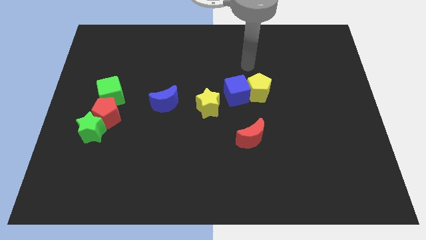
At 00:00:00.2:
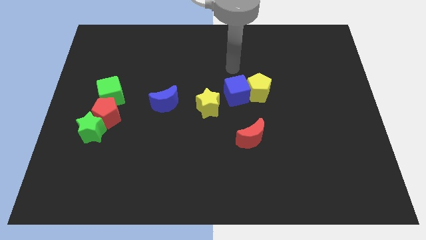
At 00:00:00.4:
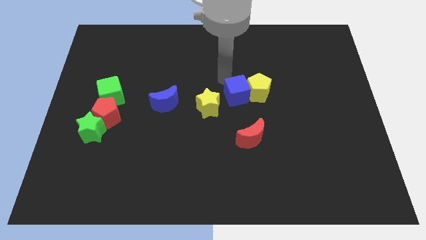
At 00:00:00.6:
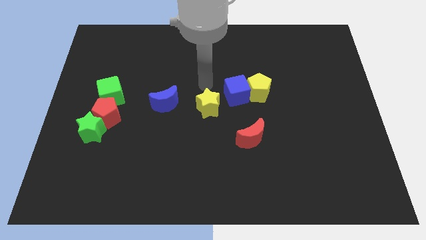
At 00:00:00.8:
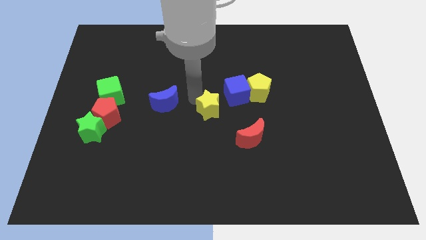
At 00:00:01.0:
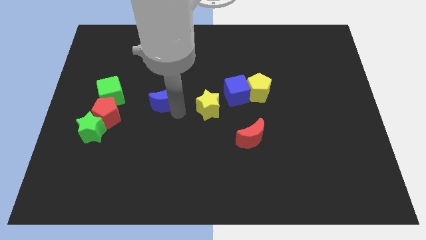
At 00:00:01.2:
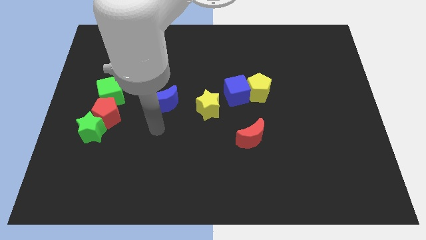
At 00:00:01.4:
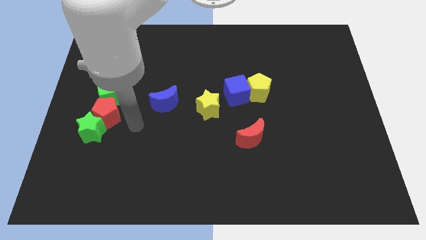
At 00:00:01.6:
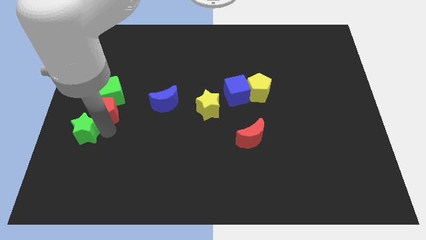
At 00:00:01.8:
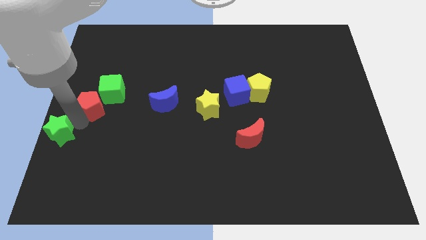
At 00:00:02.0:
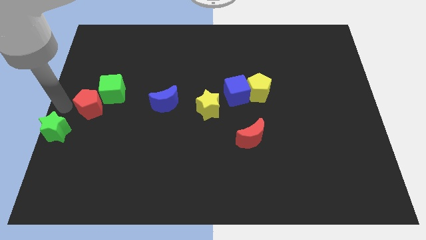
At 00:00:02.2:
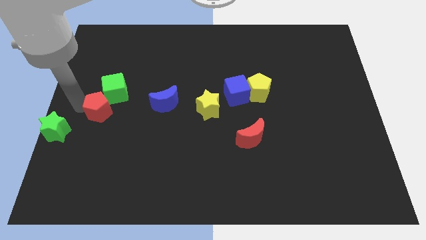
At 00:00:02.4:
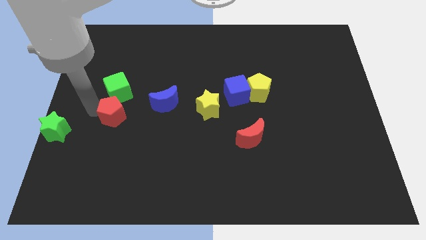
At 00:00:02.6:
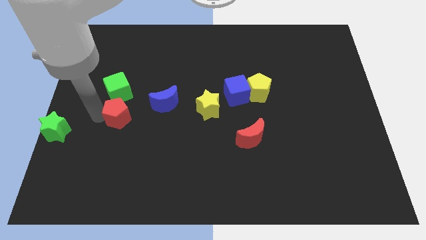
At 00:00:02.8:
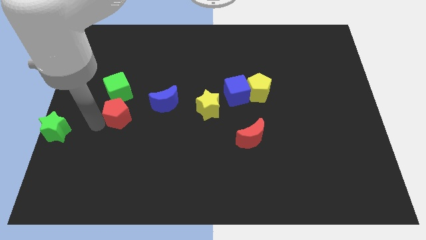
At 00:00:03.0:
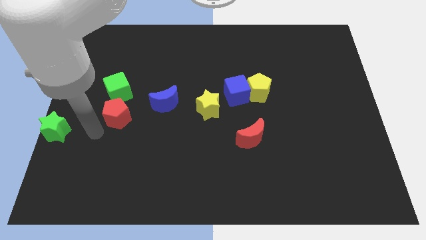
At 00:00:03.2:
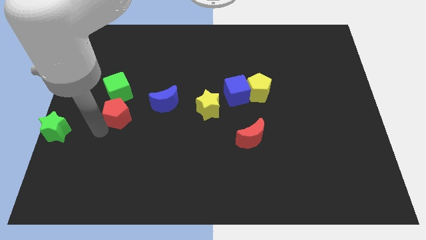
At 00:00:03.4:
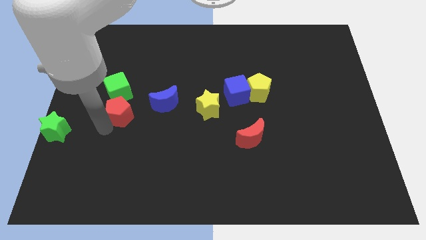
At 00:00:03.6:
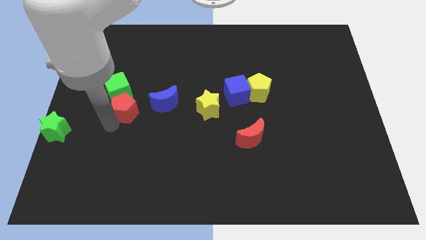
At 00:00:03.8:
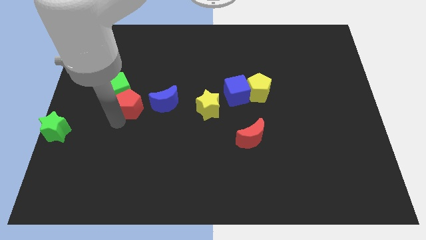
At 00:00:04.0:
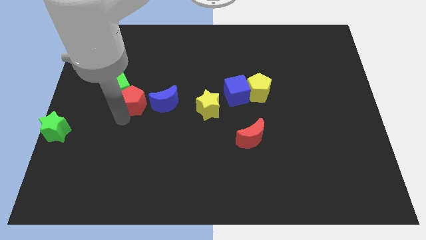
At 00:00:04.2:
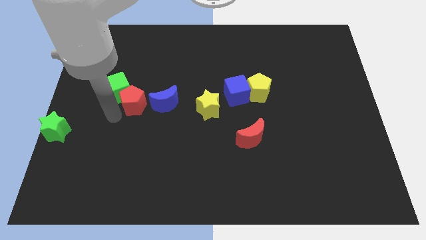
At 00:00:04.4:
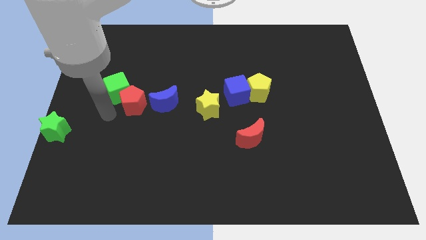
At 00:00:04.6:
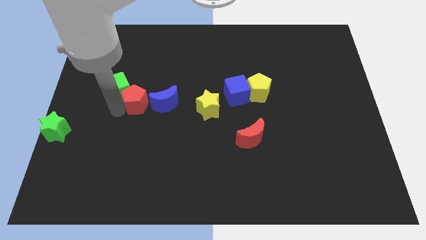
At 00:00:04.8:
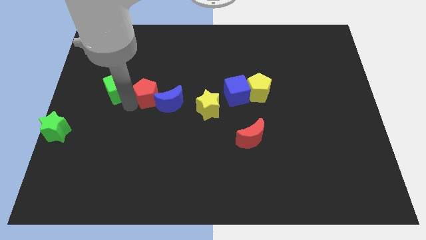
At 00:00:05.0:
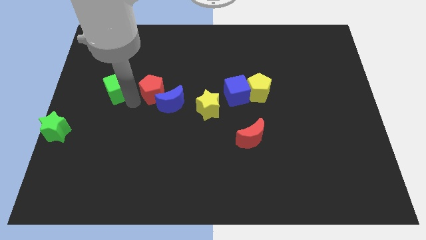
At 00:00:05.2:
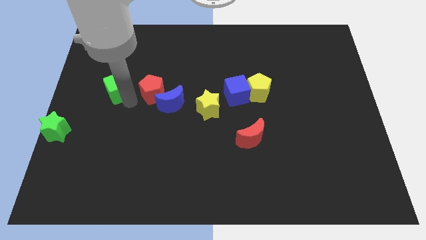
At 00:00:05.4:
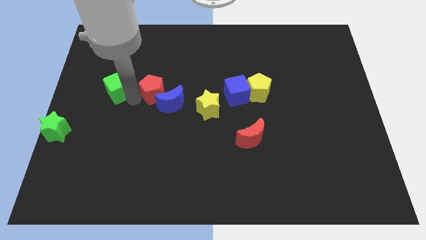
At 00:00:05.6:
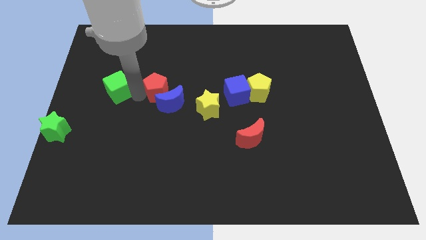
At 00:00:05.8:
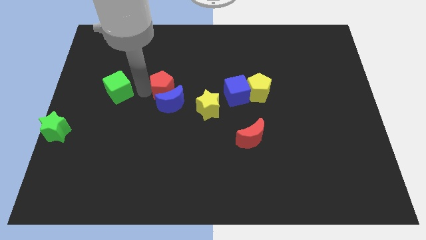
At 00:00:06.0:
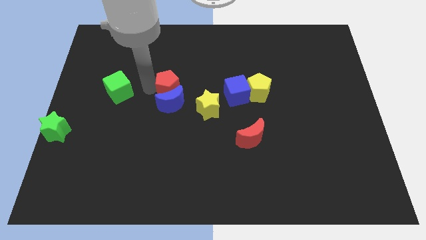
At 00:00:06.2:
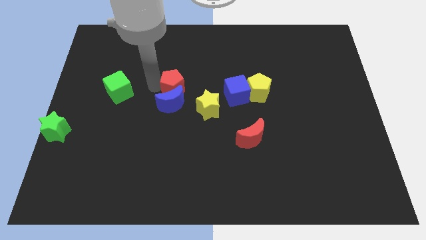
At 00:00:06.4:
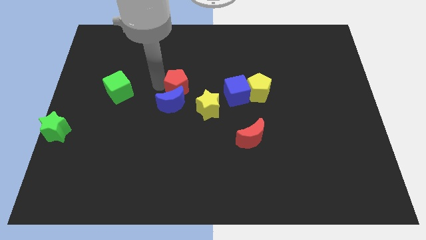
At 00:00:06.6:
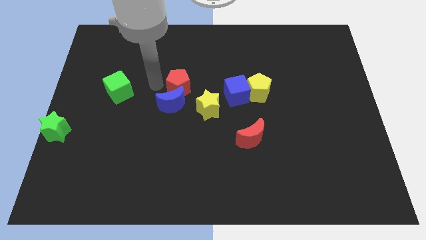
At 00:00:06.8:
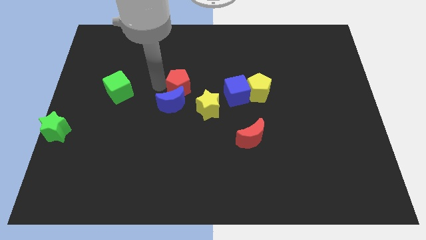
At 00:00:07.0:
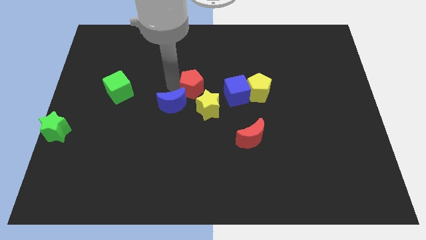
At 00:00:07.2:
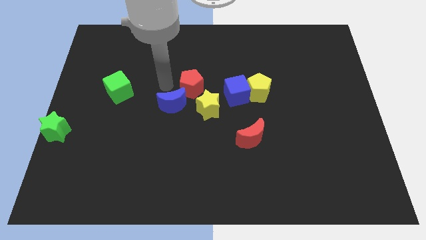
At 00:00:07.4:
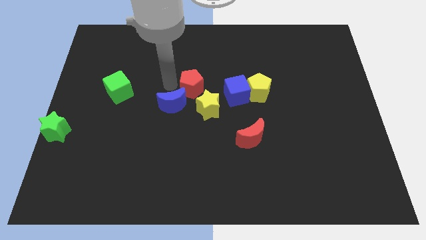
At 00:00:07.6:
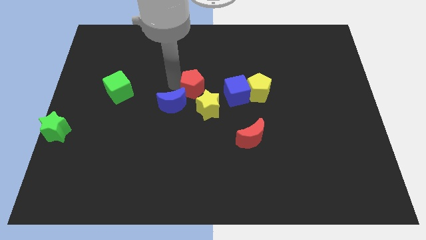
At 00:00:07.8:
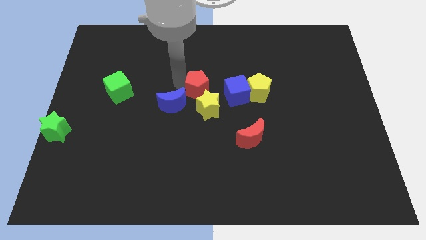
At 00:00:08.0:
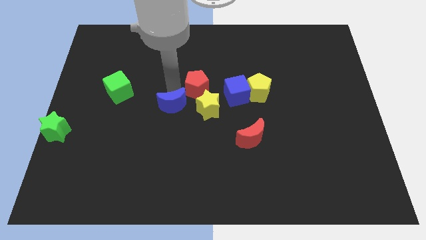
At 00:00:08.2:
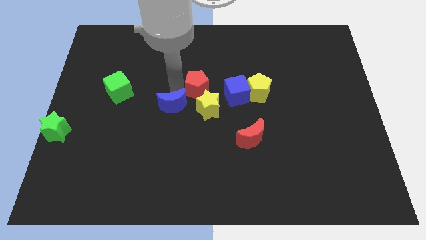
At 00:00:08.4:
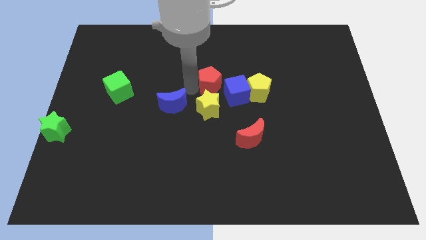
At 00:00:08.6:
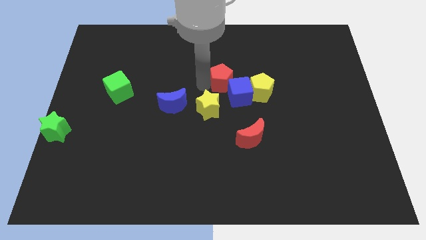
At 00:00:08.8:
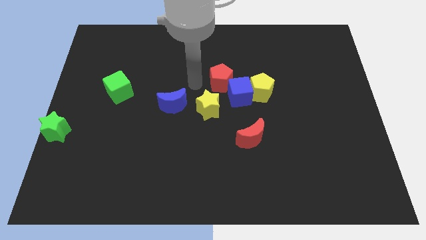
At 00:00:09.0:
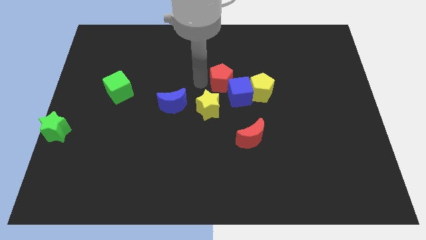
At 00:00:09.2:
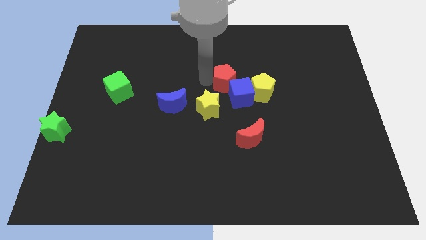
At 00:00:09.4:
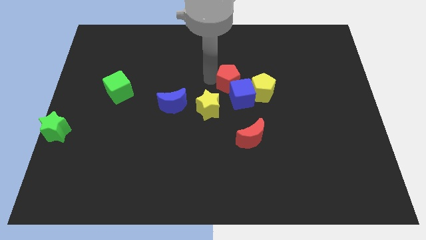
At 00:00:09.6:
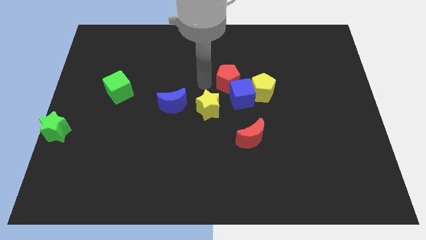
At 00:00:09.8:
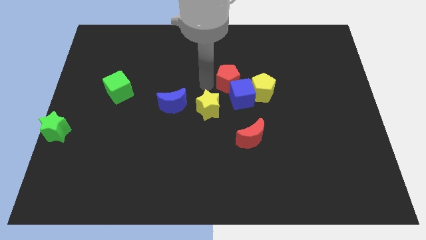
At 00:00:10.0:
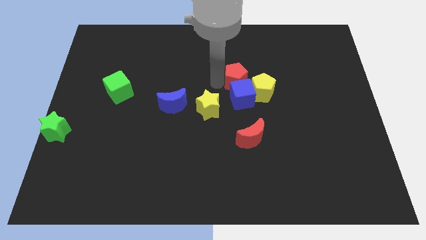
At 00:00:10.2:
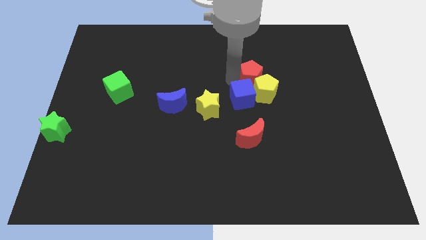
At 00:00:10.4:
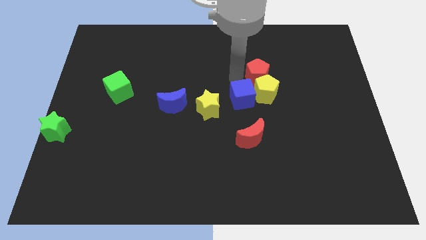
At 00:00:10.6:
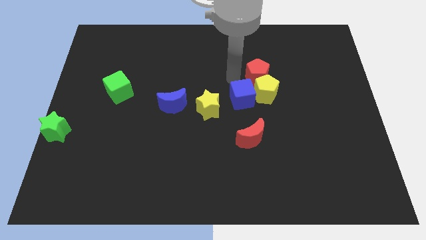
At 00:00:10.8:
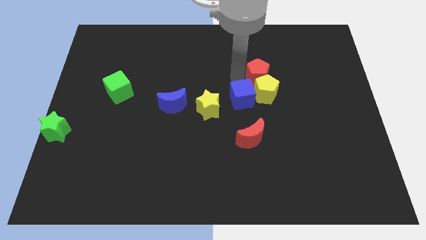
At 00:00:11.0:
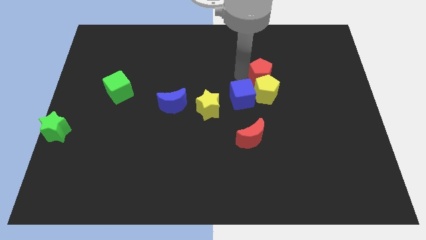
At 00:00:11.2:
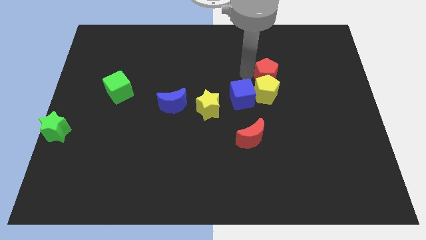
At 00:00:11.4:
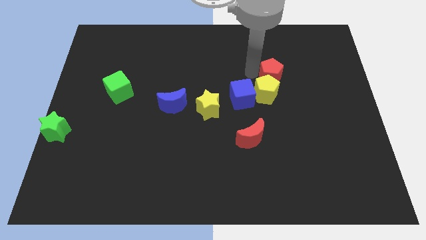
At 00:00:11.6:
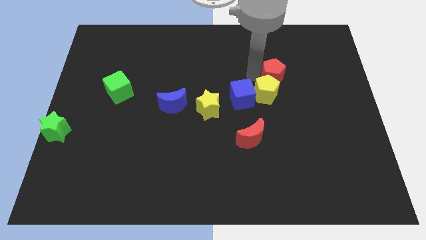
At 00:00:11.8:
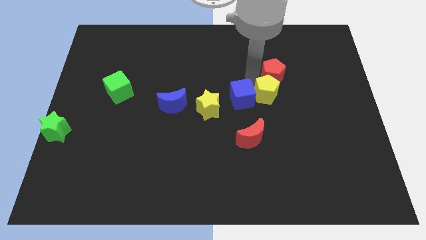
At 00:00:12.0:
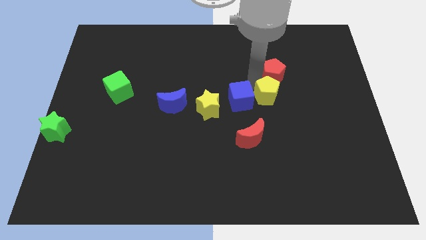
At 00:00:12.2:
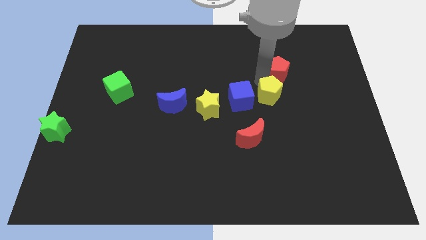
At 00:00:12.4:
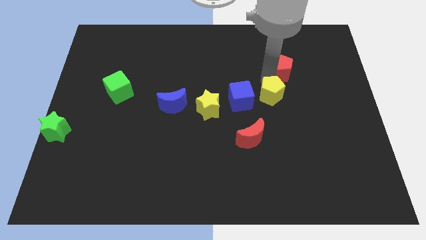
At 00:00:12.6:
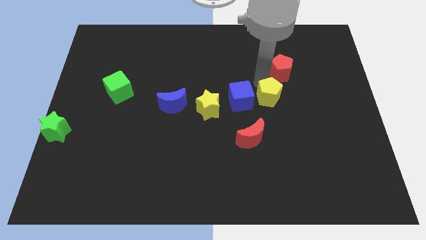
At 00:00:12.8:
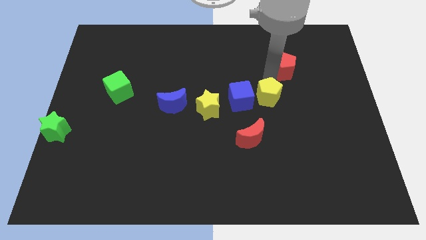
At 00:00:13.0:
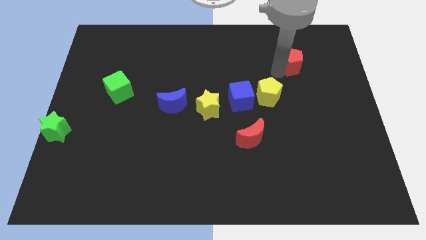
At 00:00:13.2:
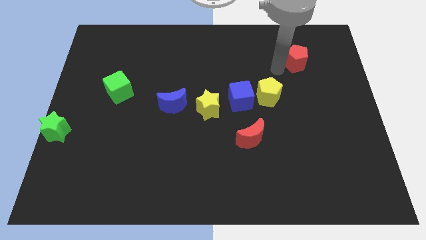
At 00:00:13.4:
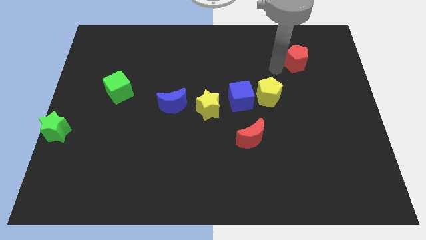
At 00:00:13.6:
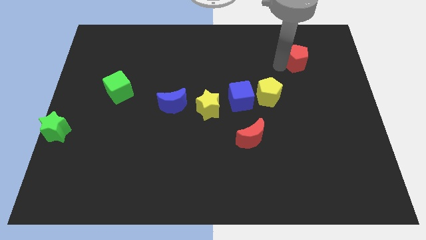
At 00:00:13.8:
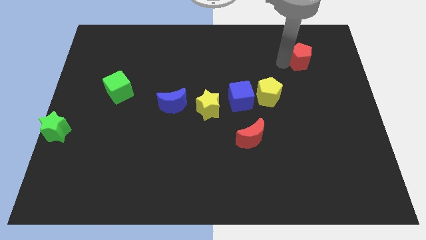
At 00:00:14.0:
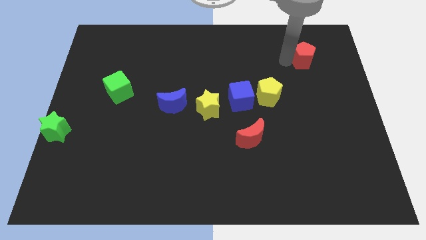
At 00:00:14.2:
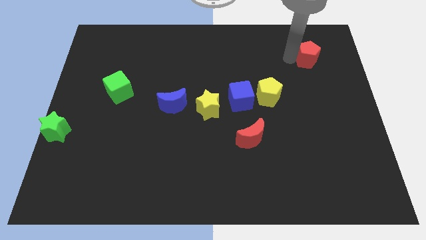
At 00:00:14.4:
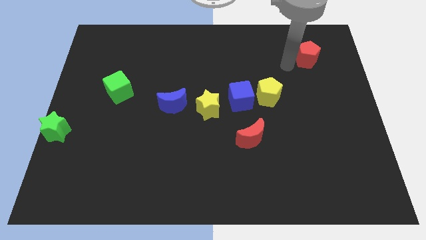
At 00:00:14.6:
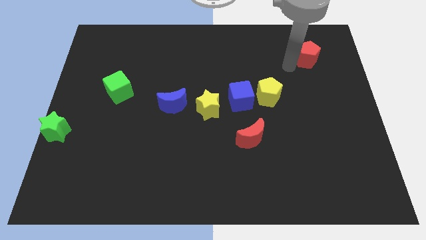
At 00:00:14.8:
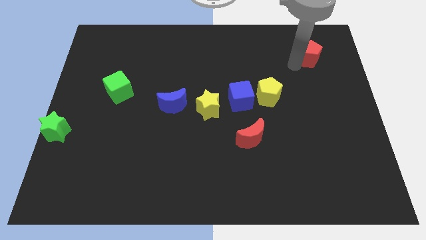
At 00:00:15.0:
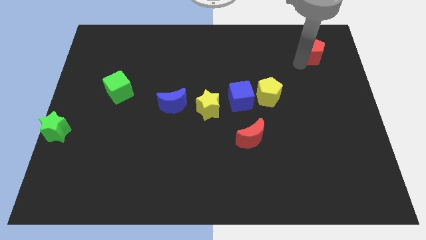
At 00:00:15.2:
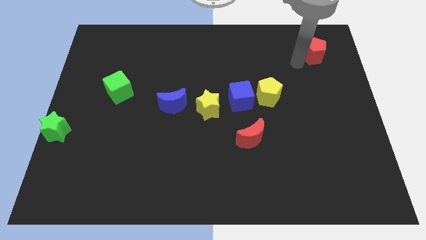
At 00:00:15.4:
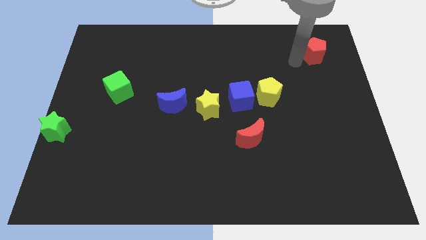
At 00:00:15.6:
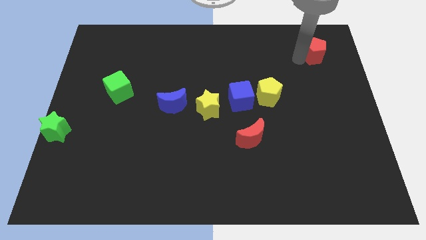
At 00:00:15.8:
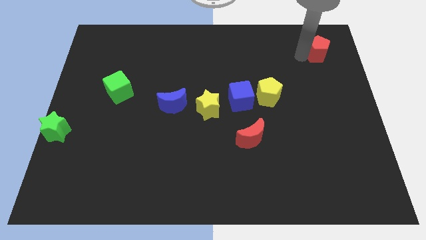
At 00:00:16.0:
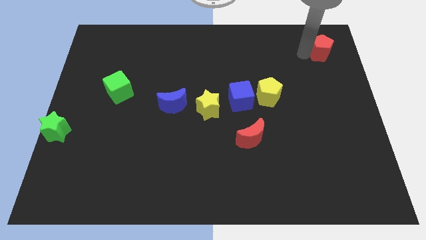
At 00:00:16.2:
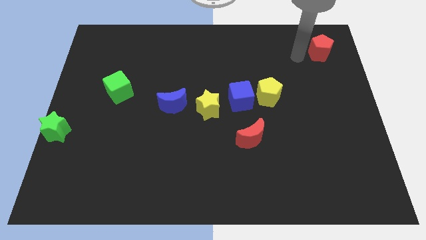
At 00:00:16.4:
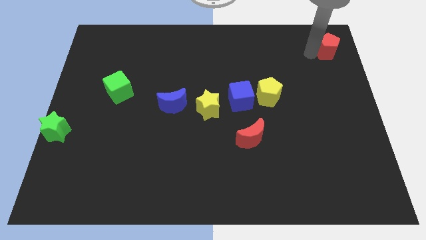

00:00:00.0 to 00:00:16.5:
push the red pentagon to the upper right corner
